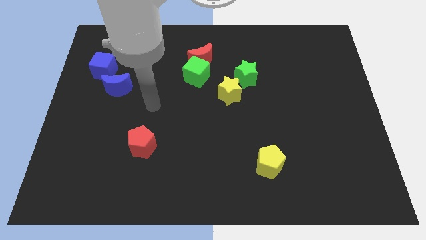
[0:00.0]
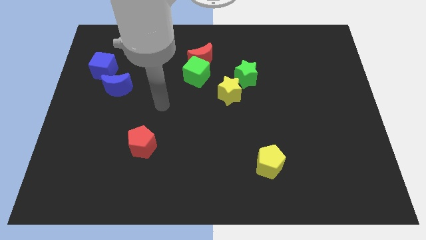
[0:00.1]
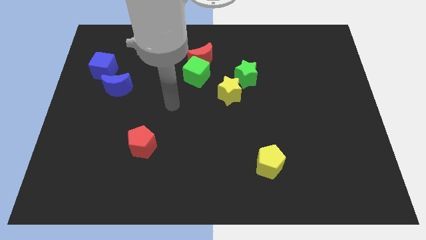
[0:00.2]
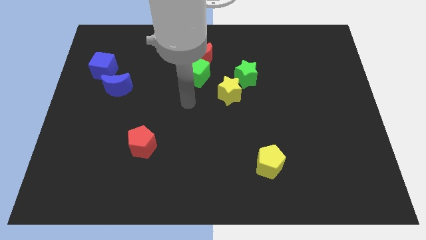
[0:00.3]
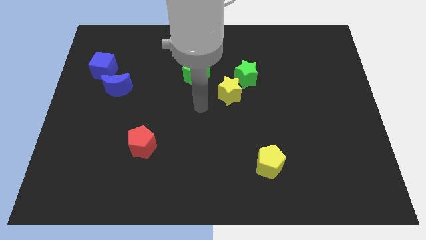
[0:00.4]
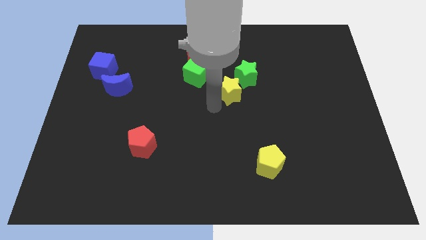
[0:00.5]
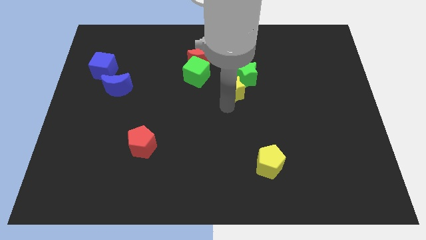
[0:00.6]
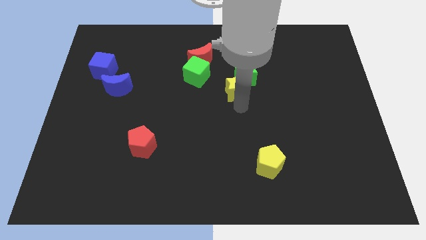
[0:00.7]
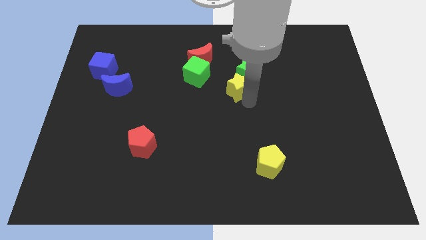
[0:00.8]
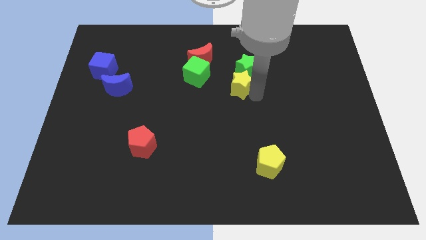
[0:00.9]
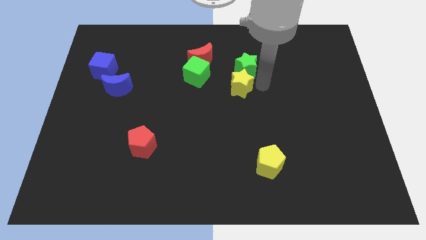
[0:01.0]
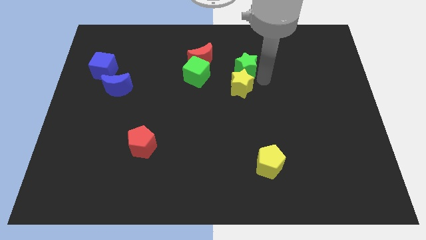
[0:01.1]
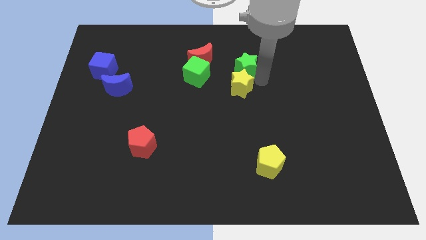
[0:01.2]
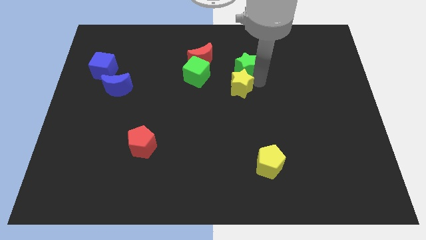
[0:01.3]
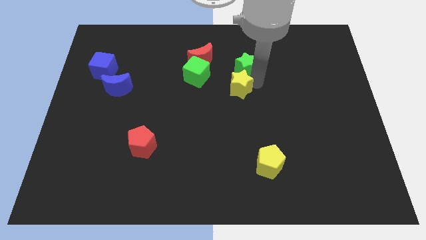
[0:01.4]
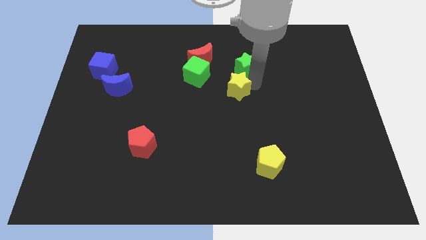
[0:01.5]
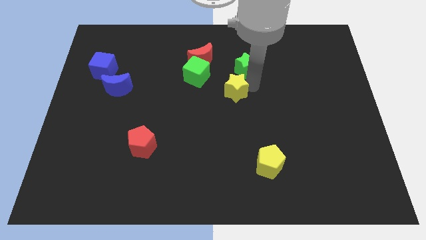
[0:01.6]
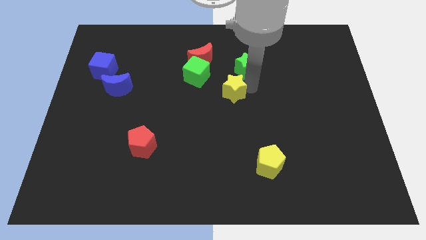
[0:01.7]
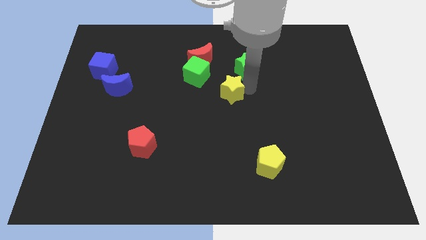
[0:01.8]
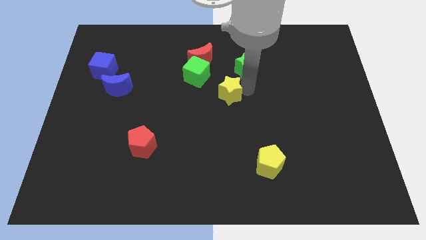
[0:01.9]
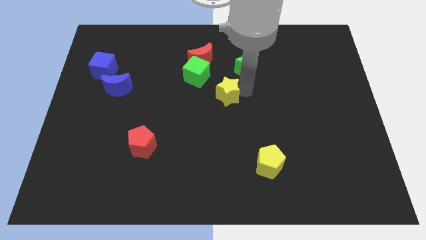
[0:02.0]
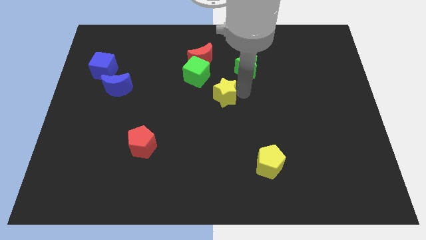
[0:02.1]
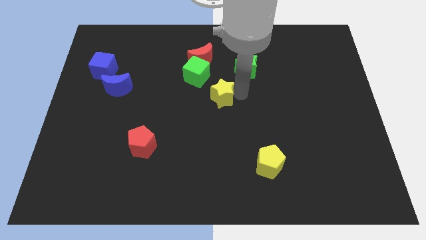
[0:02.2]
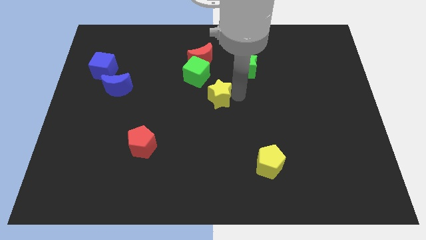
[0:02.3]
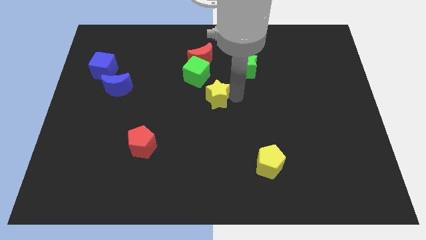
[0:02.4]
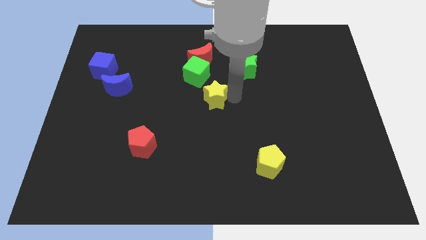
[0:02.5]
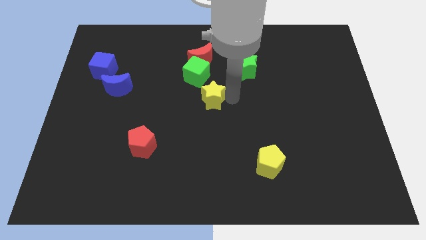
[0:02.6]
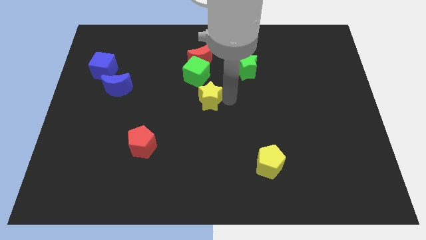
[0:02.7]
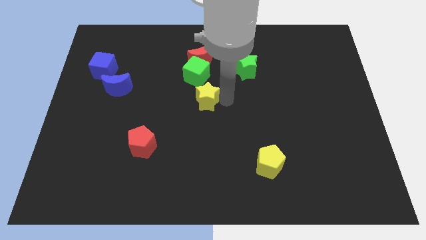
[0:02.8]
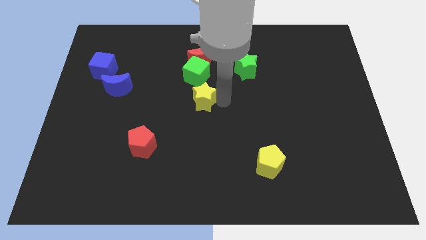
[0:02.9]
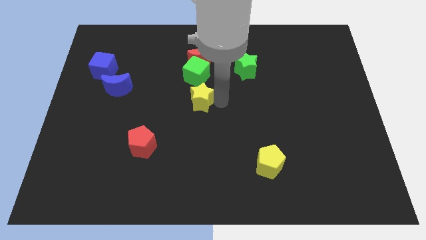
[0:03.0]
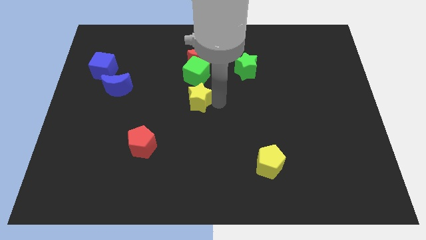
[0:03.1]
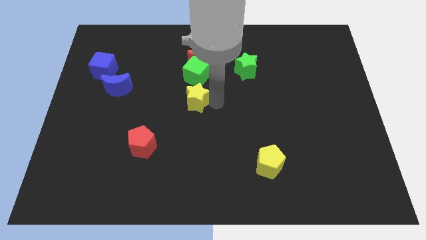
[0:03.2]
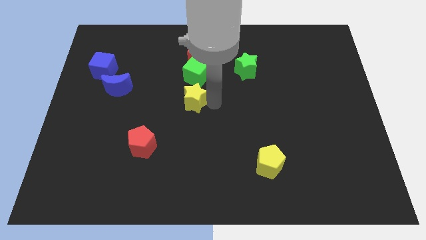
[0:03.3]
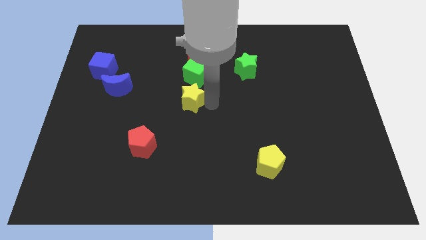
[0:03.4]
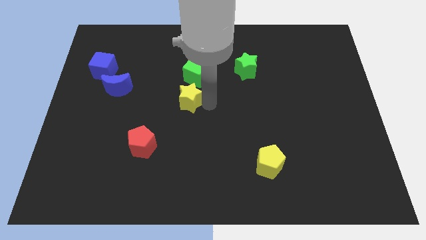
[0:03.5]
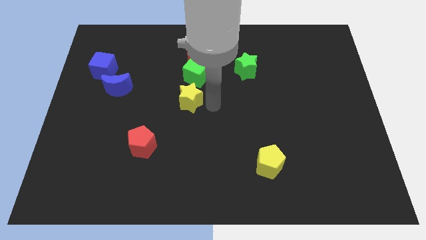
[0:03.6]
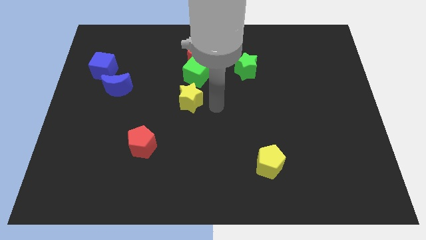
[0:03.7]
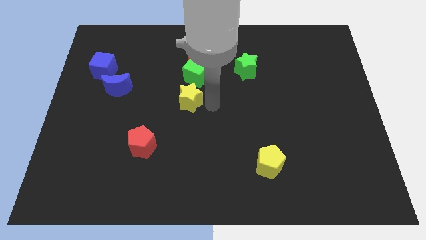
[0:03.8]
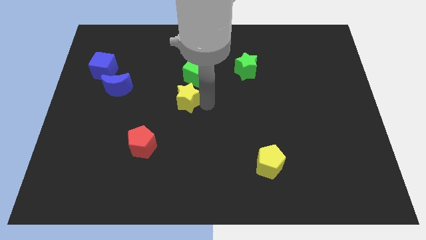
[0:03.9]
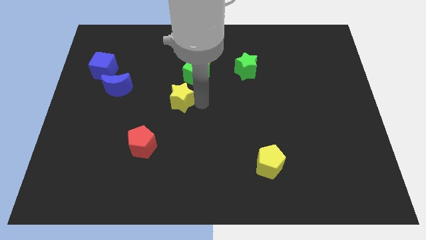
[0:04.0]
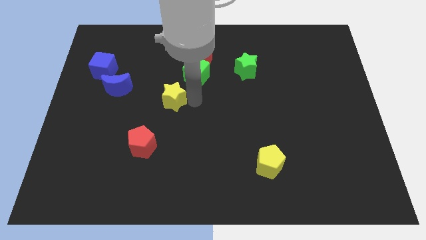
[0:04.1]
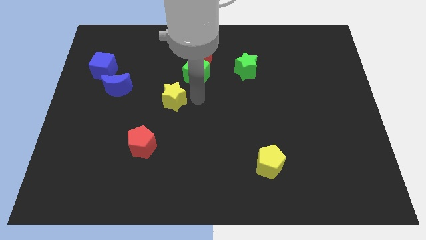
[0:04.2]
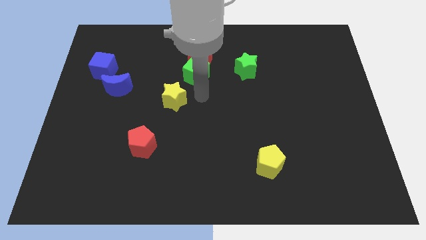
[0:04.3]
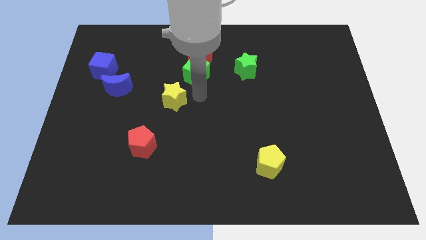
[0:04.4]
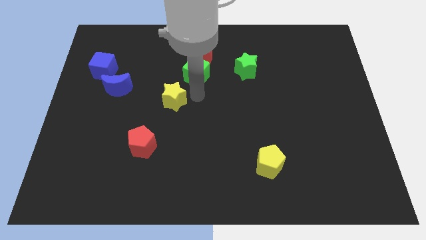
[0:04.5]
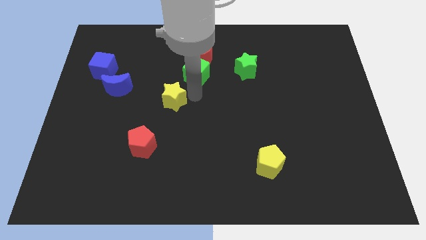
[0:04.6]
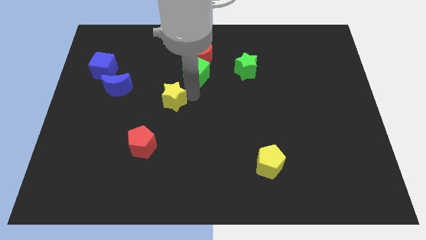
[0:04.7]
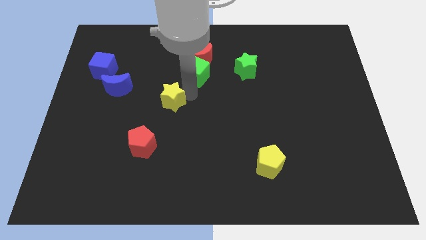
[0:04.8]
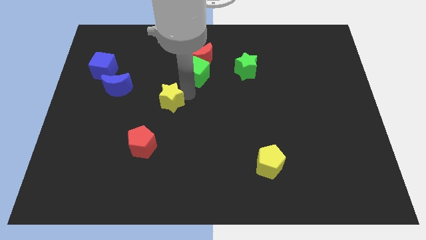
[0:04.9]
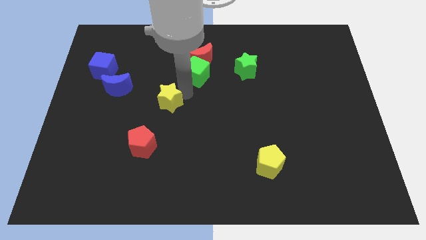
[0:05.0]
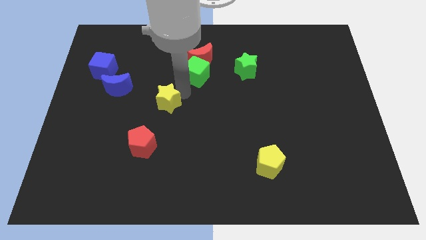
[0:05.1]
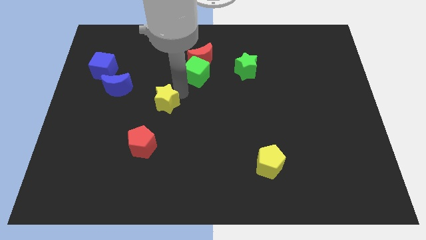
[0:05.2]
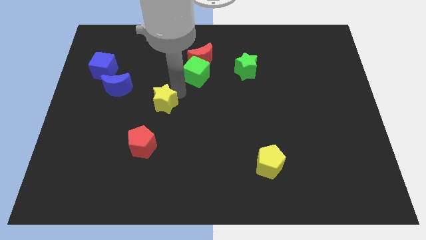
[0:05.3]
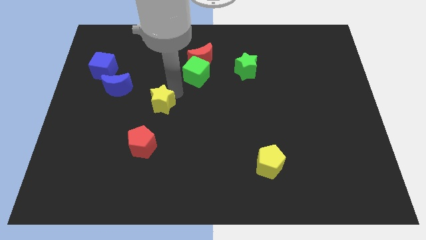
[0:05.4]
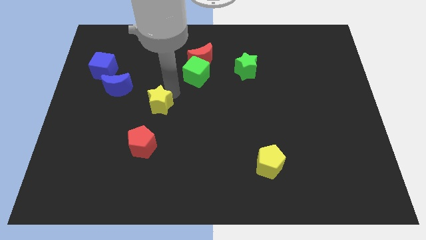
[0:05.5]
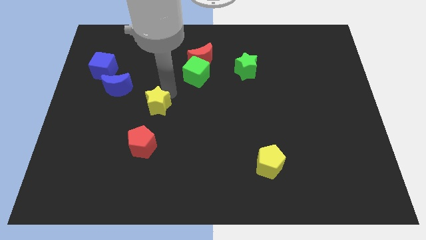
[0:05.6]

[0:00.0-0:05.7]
move the yellow star diagonally down and to the right of the blue moon

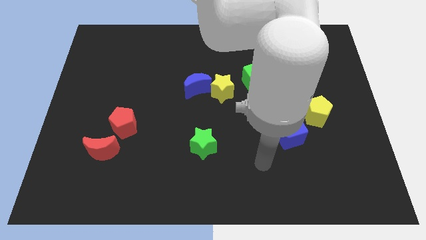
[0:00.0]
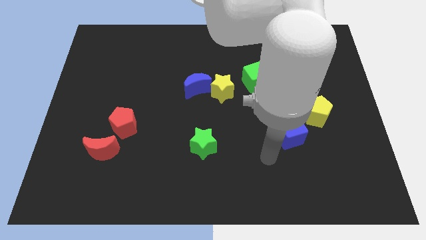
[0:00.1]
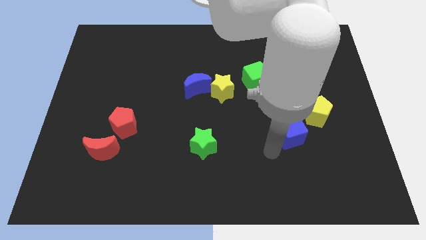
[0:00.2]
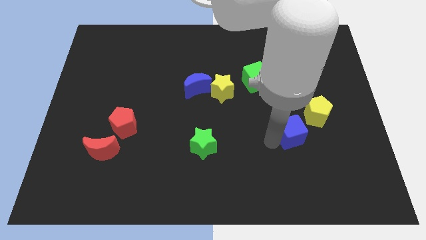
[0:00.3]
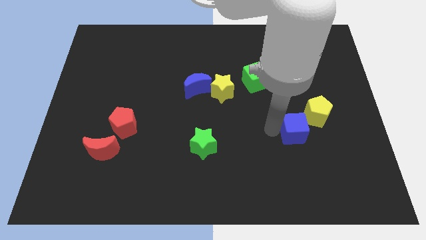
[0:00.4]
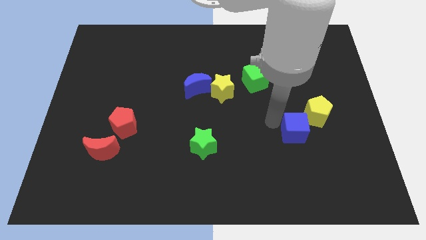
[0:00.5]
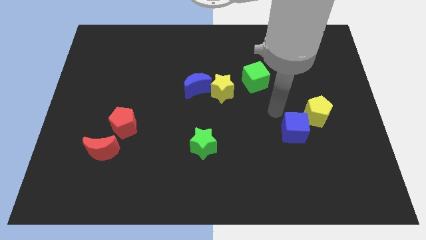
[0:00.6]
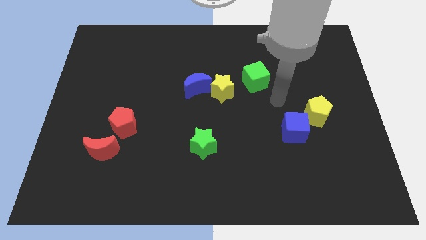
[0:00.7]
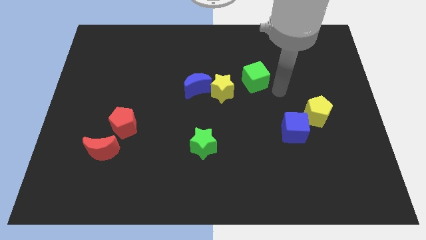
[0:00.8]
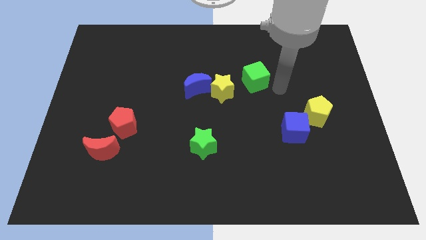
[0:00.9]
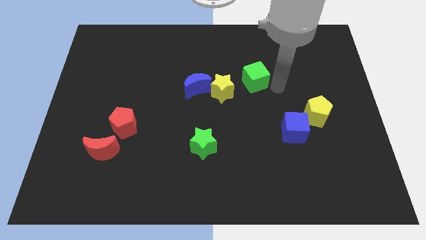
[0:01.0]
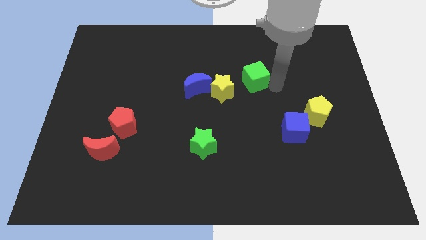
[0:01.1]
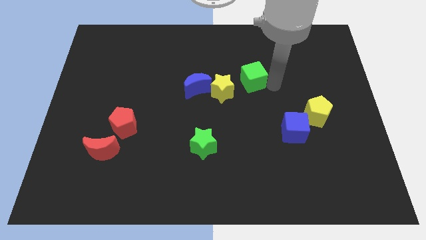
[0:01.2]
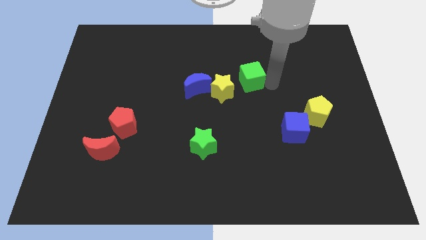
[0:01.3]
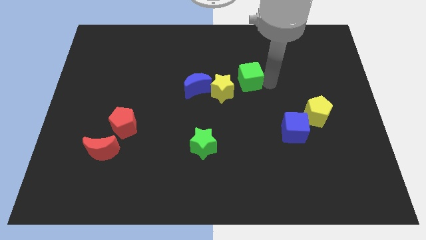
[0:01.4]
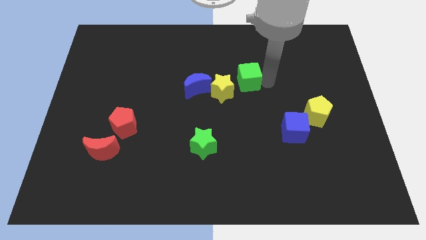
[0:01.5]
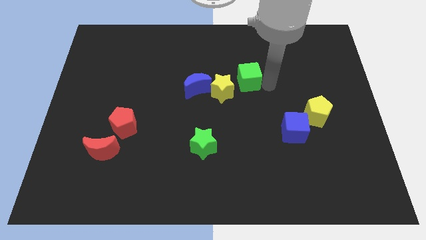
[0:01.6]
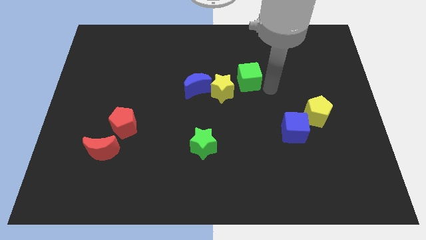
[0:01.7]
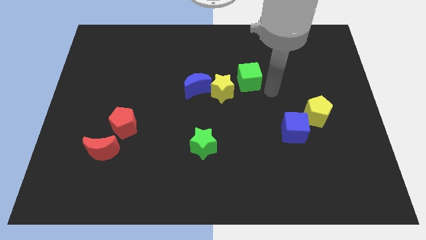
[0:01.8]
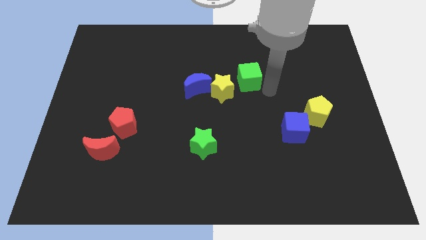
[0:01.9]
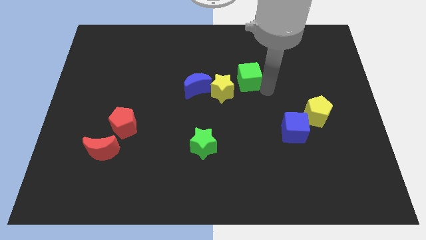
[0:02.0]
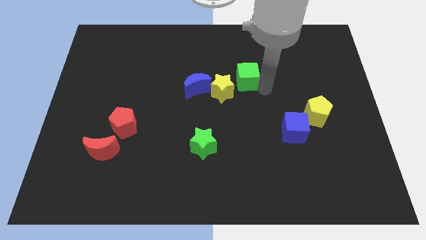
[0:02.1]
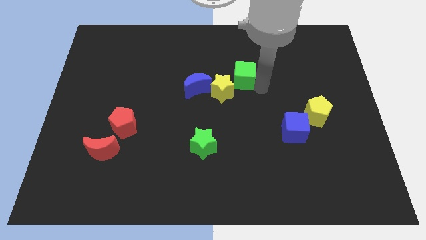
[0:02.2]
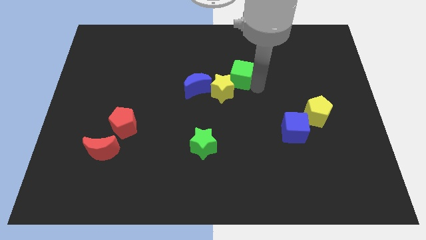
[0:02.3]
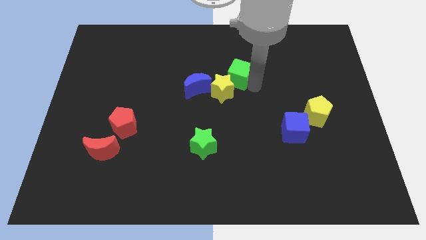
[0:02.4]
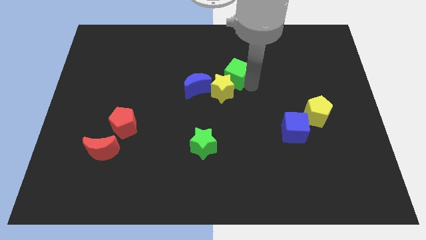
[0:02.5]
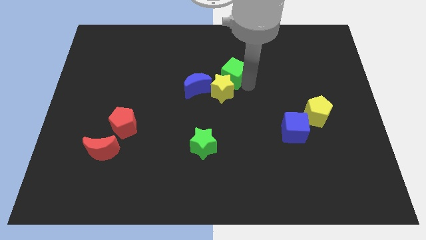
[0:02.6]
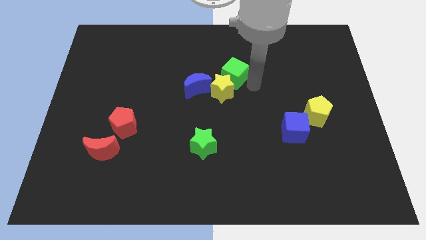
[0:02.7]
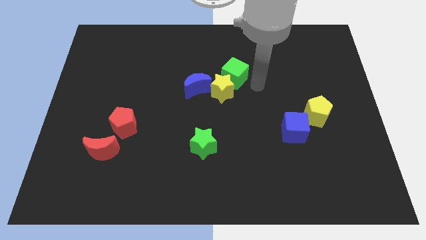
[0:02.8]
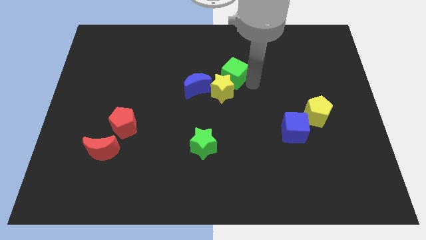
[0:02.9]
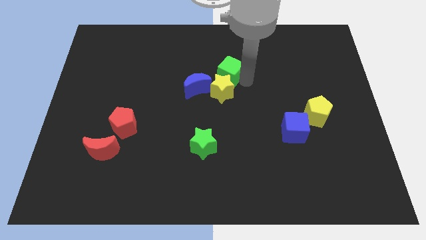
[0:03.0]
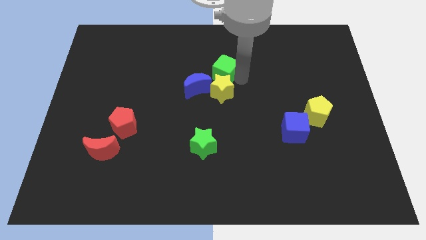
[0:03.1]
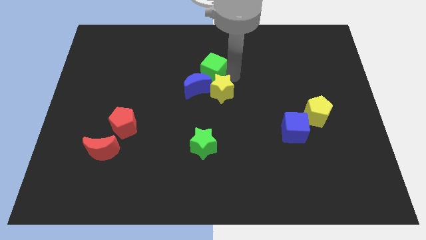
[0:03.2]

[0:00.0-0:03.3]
push the green cube to the top of the blue moon
